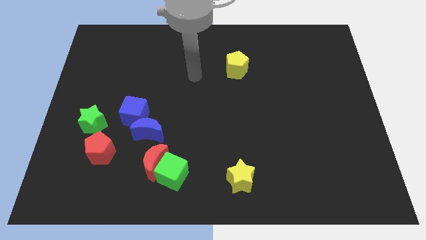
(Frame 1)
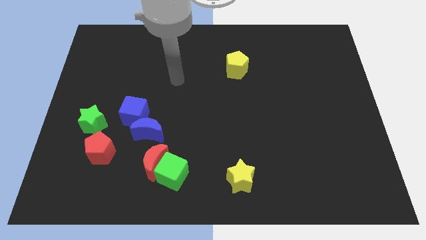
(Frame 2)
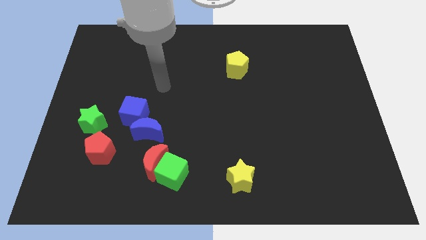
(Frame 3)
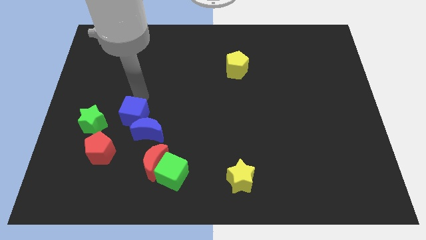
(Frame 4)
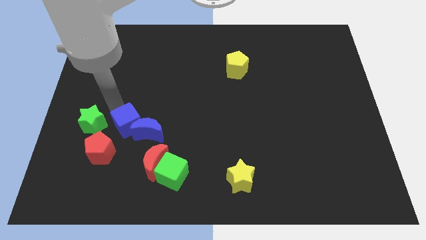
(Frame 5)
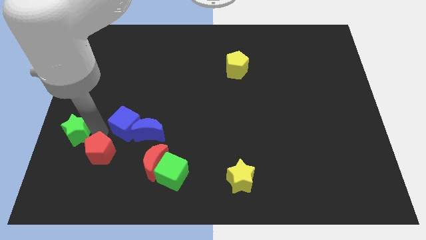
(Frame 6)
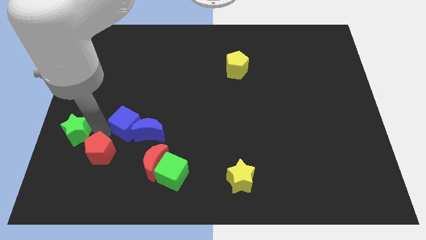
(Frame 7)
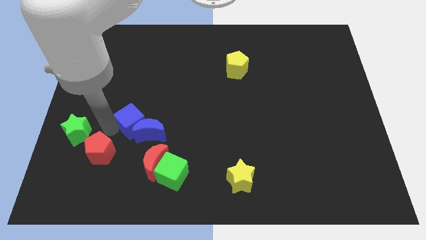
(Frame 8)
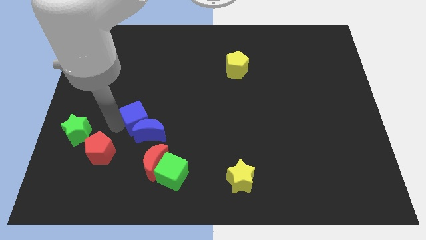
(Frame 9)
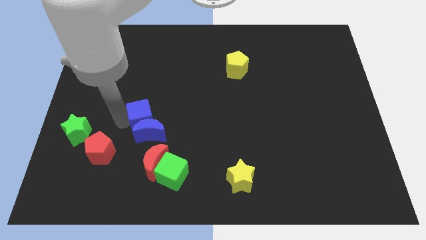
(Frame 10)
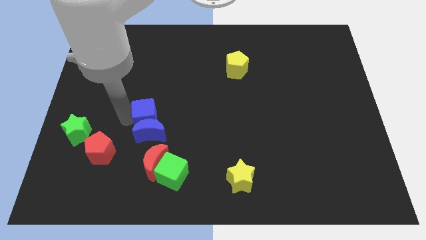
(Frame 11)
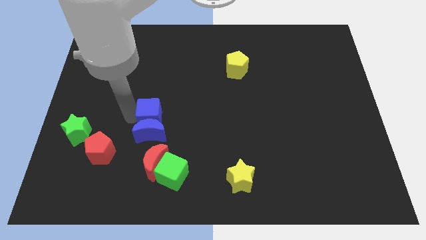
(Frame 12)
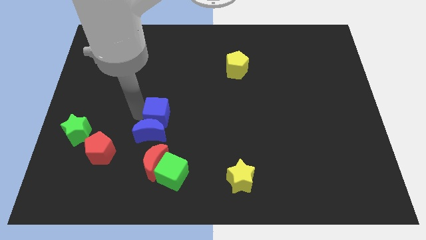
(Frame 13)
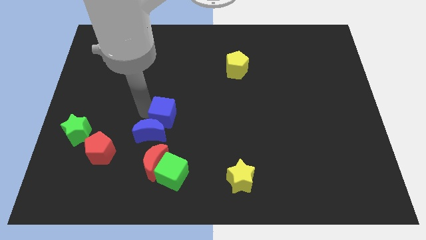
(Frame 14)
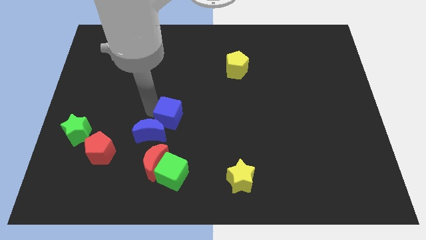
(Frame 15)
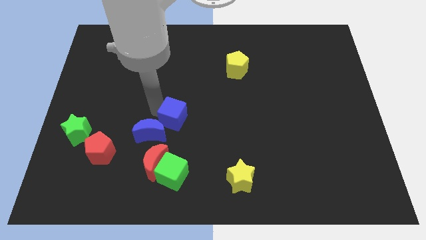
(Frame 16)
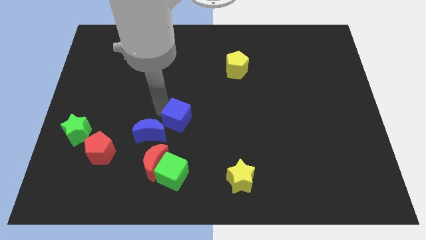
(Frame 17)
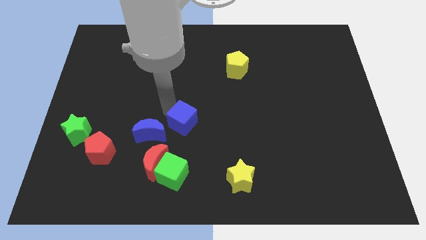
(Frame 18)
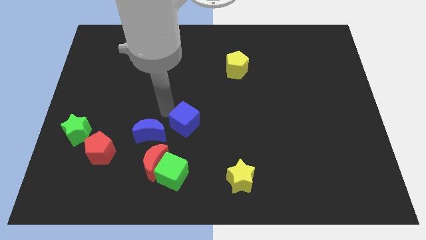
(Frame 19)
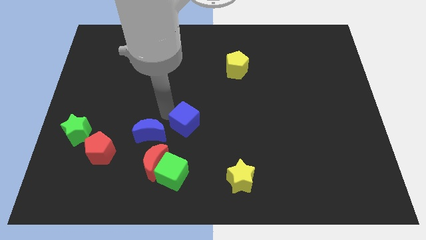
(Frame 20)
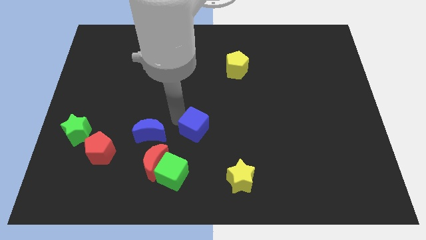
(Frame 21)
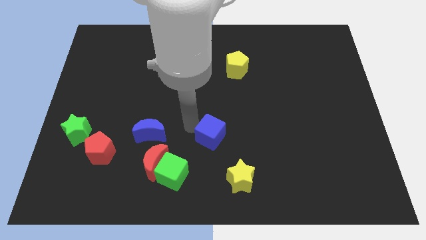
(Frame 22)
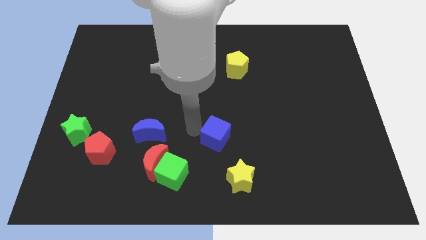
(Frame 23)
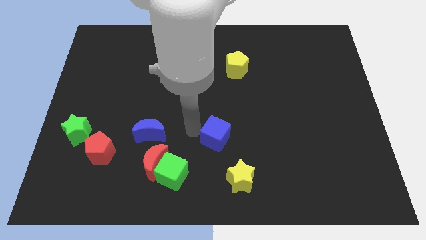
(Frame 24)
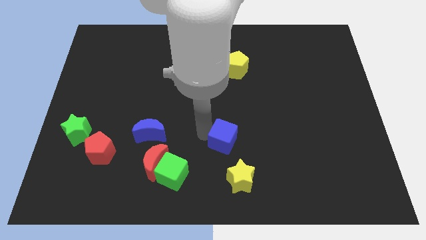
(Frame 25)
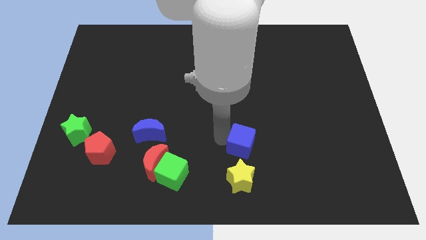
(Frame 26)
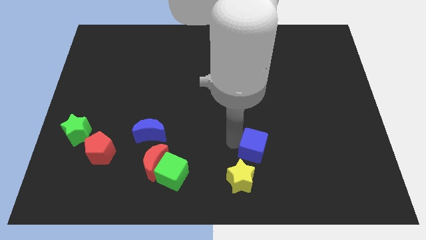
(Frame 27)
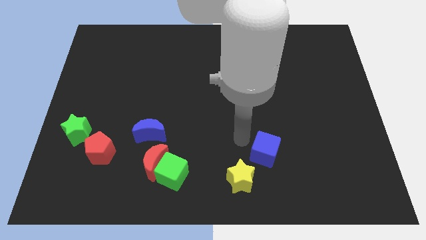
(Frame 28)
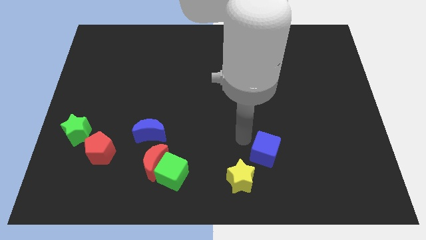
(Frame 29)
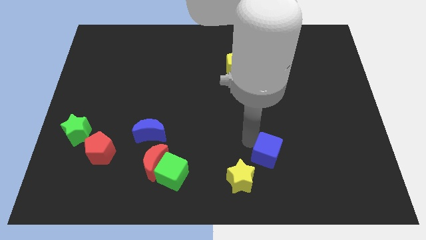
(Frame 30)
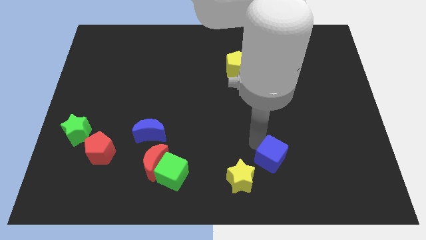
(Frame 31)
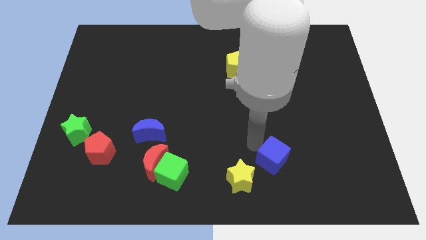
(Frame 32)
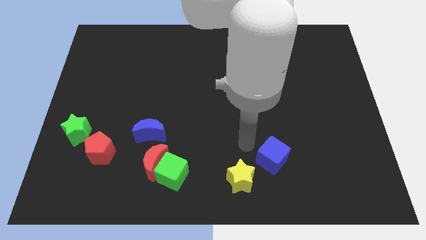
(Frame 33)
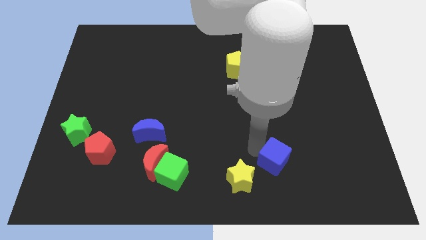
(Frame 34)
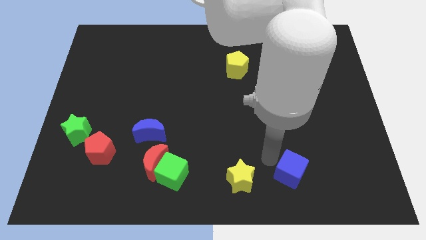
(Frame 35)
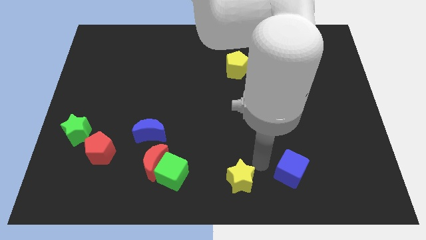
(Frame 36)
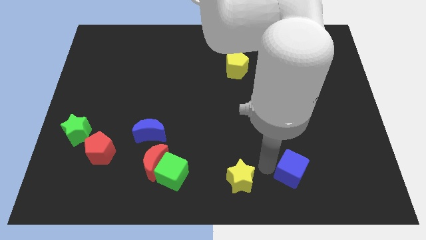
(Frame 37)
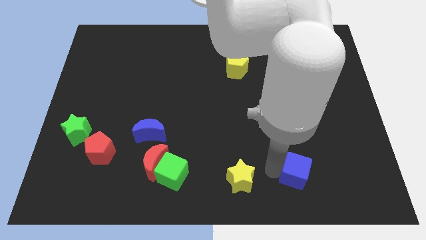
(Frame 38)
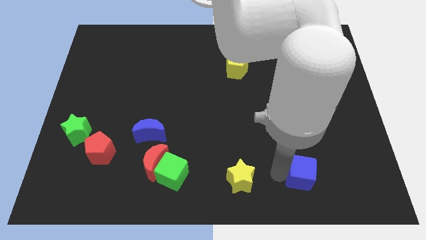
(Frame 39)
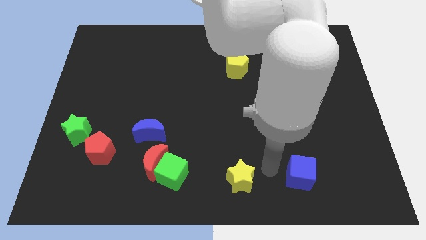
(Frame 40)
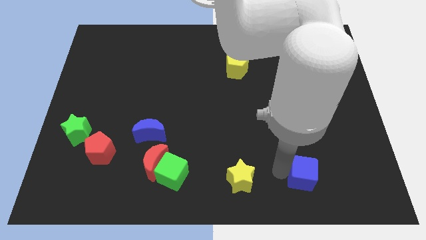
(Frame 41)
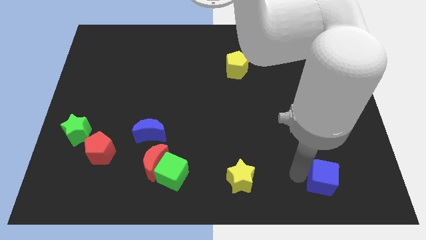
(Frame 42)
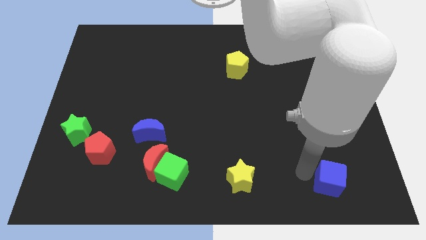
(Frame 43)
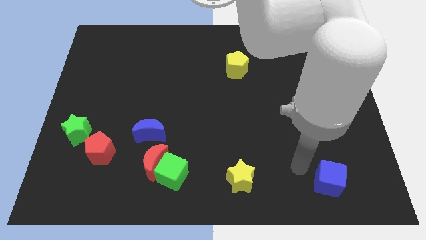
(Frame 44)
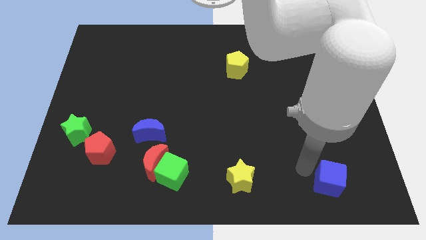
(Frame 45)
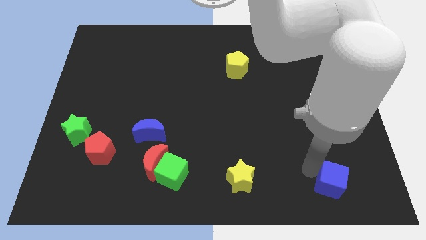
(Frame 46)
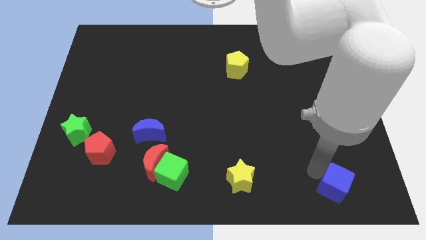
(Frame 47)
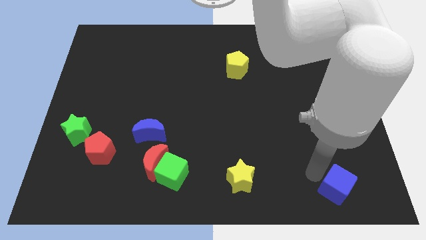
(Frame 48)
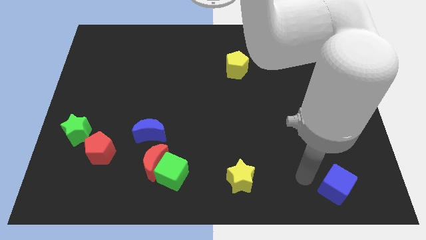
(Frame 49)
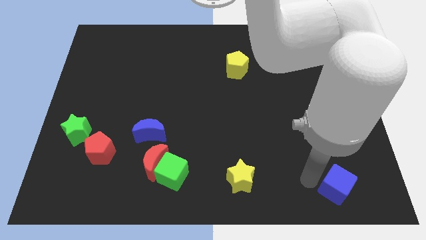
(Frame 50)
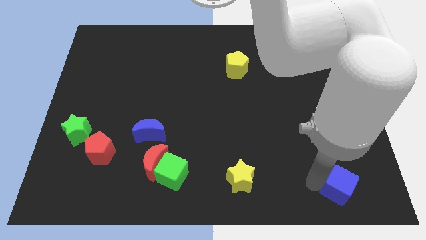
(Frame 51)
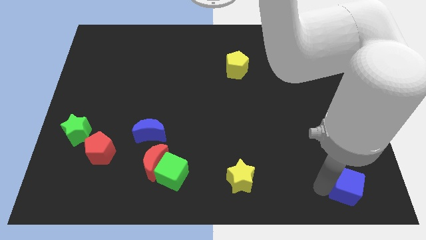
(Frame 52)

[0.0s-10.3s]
move the blue cube to the lower right corner
